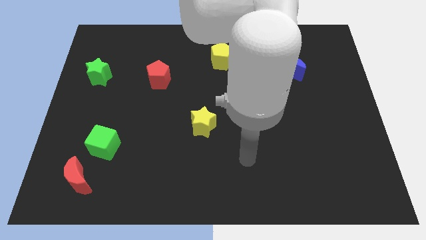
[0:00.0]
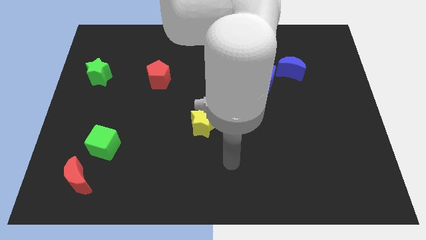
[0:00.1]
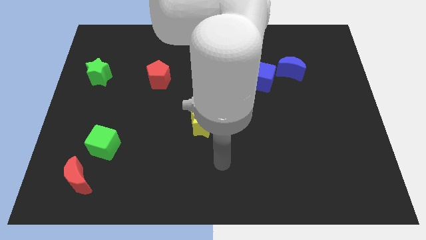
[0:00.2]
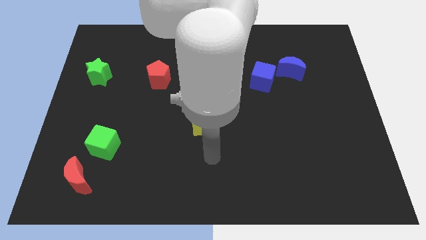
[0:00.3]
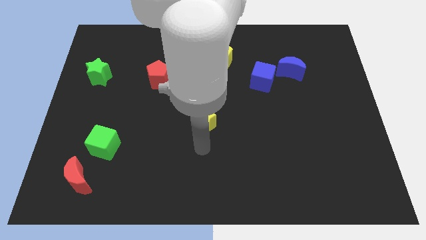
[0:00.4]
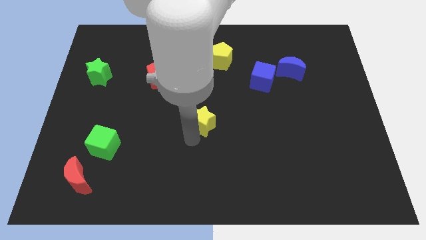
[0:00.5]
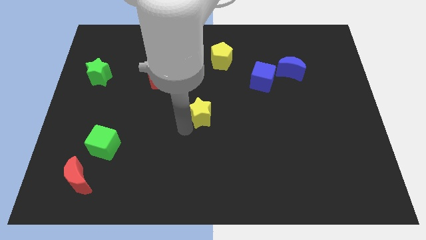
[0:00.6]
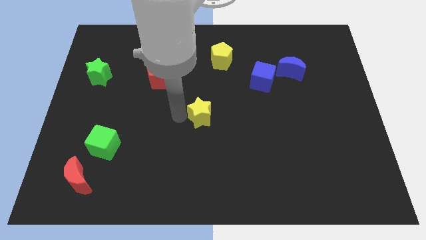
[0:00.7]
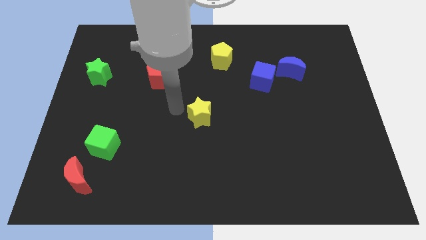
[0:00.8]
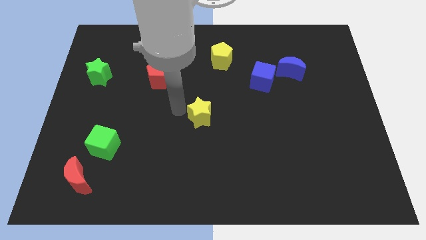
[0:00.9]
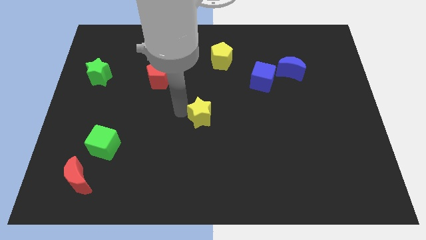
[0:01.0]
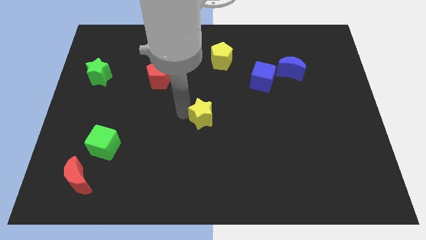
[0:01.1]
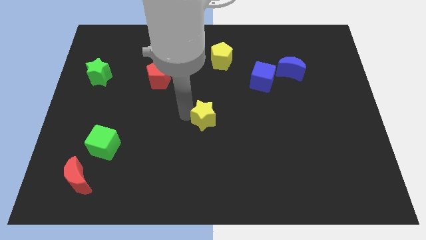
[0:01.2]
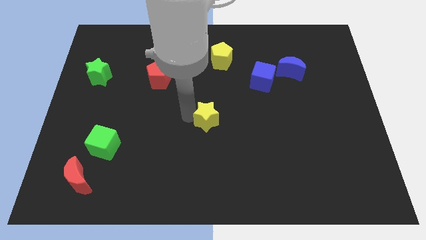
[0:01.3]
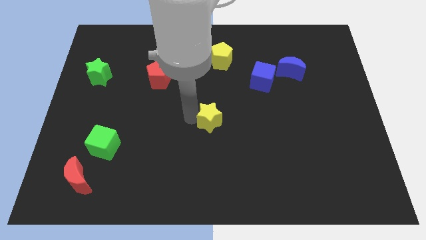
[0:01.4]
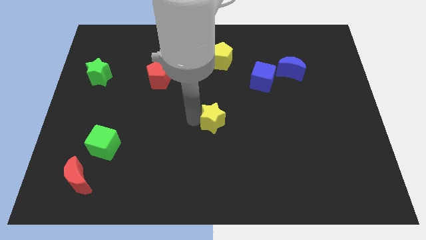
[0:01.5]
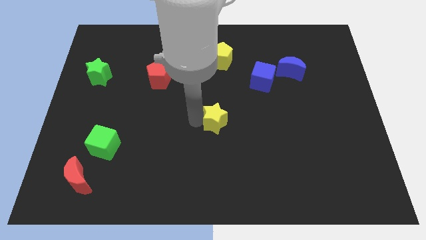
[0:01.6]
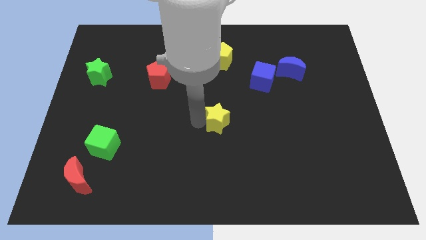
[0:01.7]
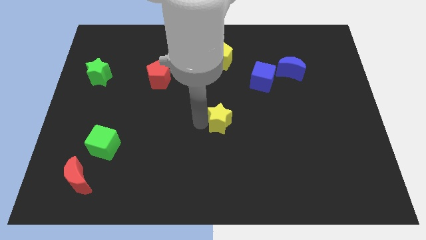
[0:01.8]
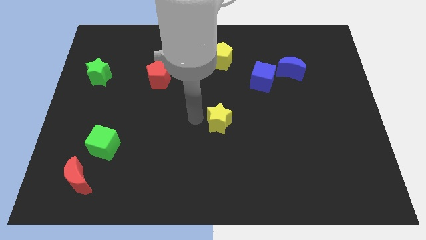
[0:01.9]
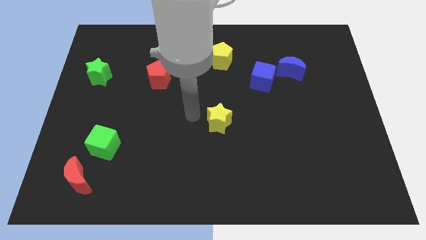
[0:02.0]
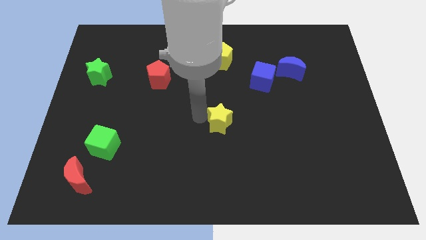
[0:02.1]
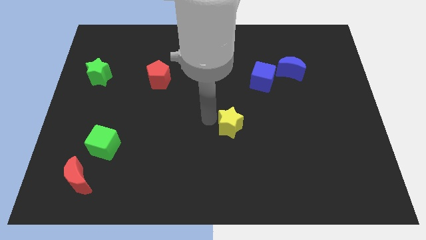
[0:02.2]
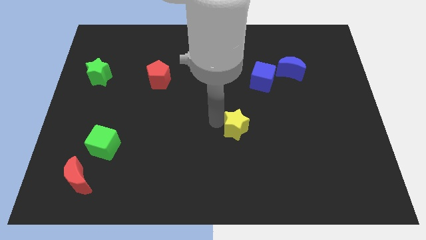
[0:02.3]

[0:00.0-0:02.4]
slightly move the yellow star right

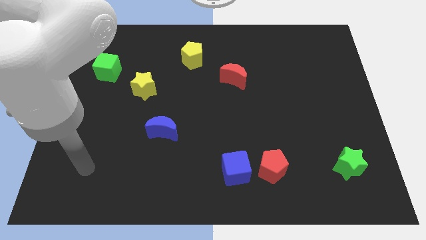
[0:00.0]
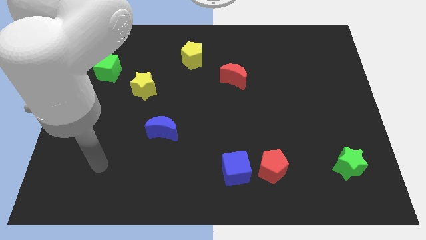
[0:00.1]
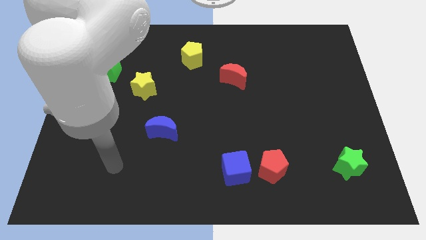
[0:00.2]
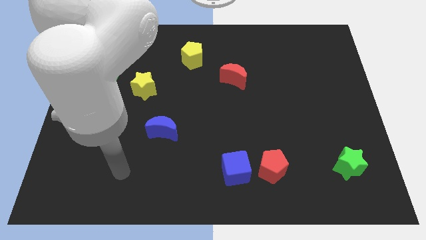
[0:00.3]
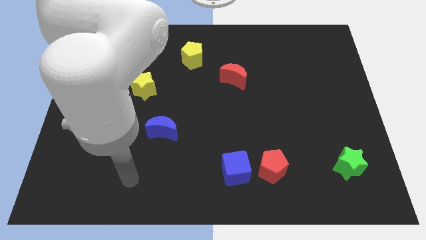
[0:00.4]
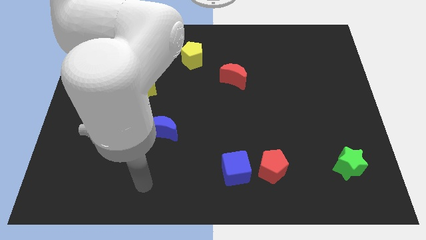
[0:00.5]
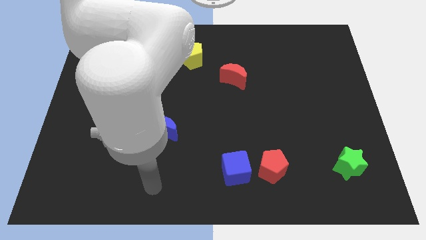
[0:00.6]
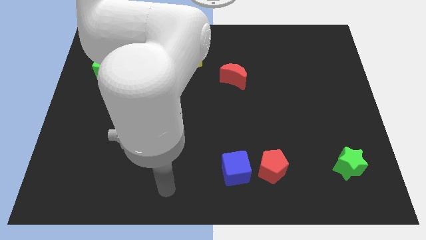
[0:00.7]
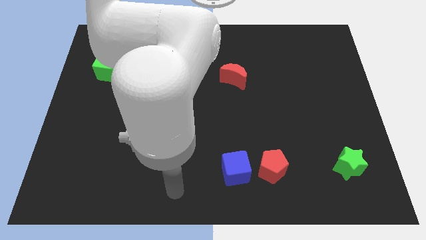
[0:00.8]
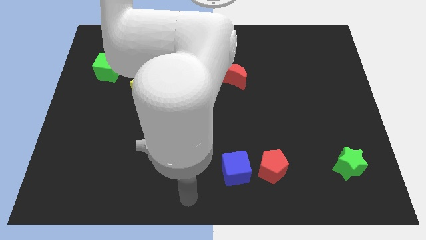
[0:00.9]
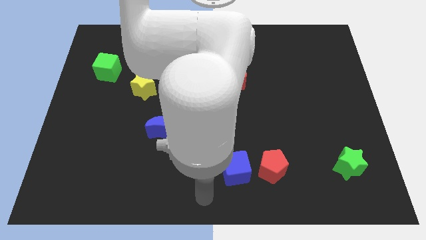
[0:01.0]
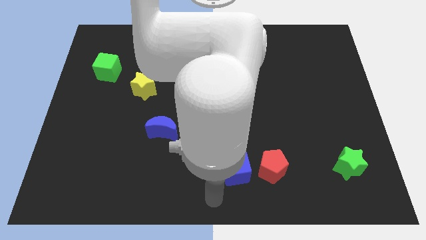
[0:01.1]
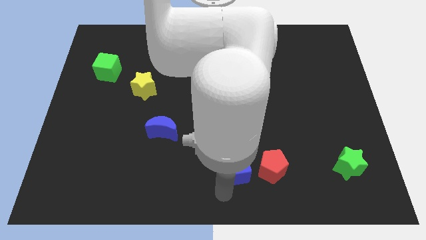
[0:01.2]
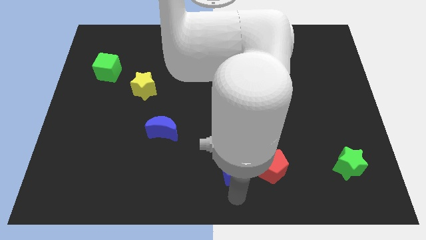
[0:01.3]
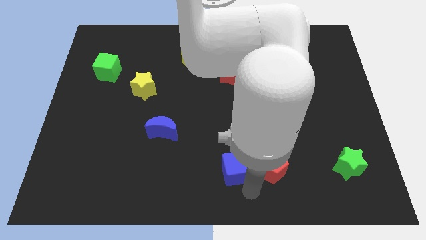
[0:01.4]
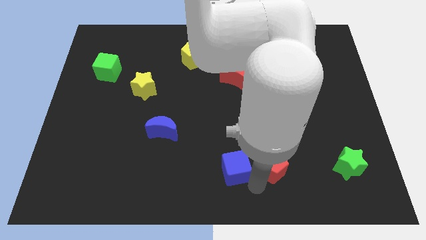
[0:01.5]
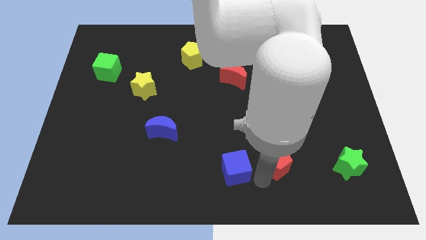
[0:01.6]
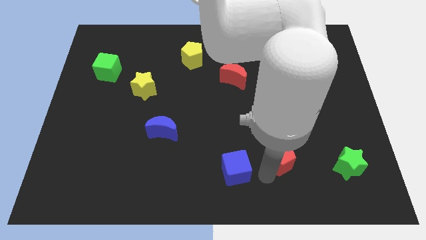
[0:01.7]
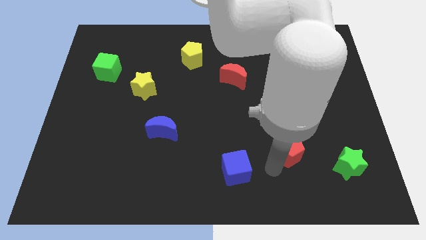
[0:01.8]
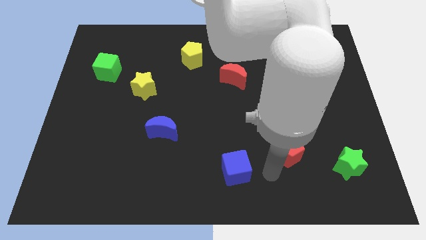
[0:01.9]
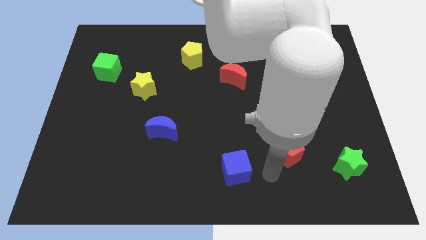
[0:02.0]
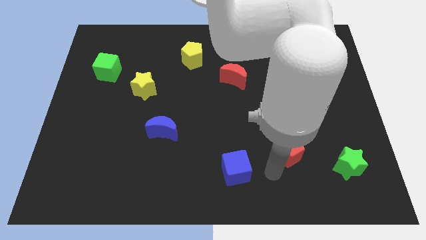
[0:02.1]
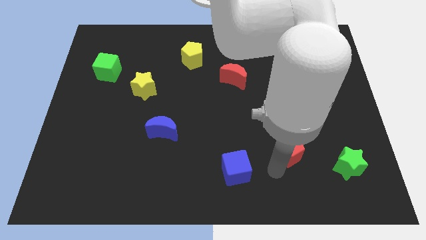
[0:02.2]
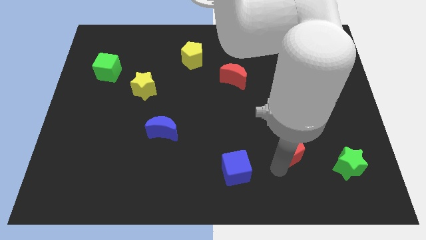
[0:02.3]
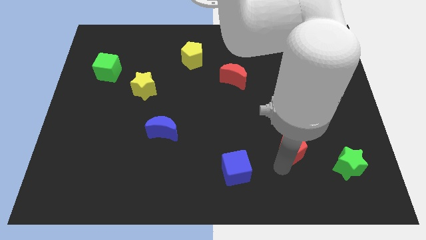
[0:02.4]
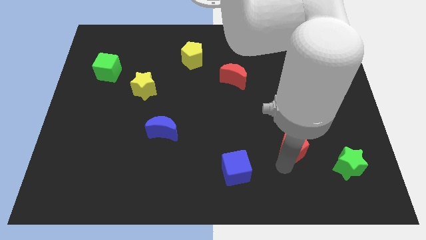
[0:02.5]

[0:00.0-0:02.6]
slide the red pentagon up and then right a little bit

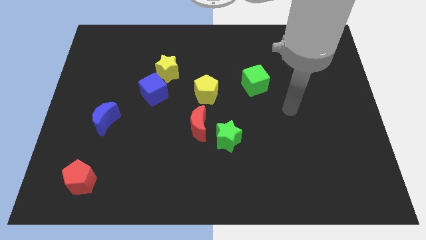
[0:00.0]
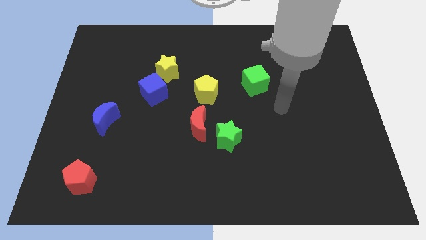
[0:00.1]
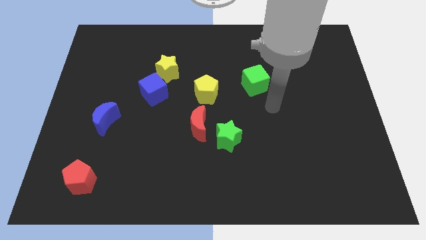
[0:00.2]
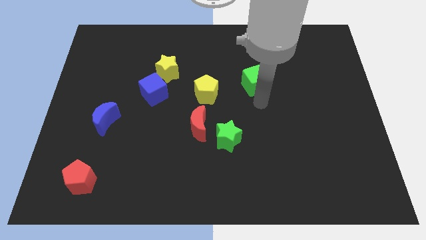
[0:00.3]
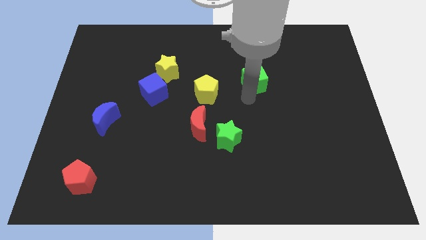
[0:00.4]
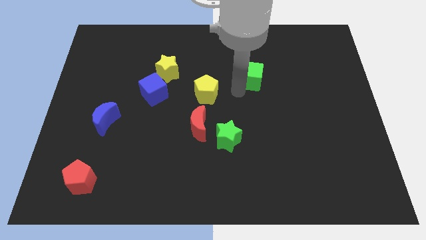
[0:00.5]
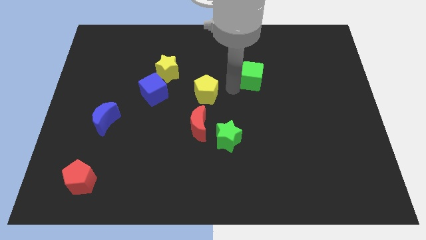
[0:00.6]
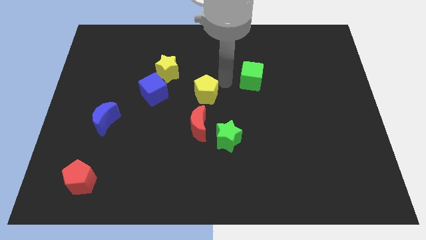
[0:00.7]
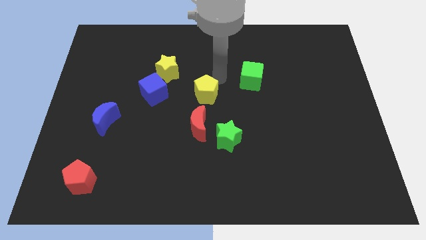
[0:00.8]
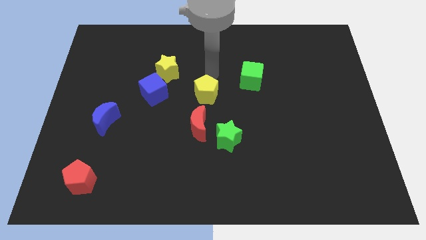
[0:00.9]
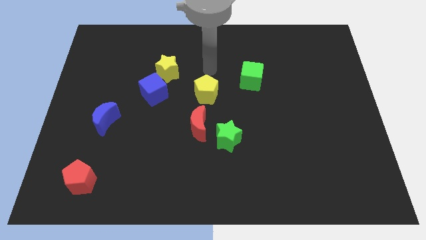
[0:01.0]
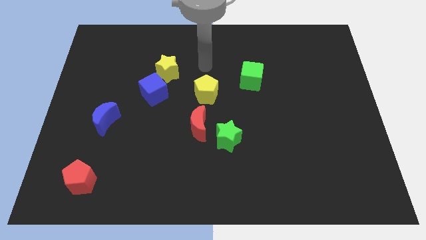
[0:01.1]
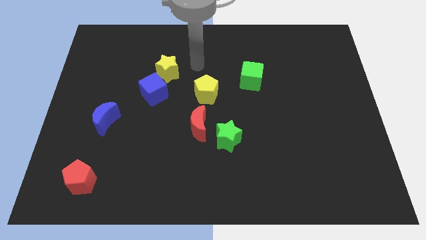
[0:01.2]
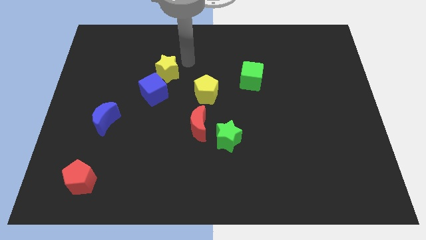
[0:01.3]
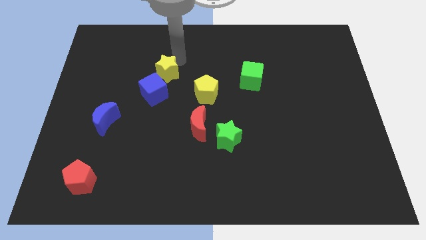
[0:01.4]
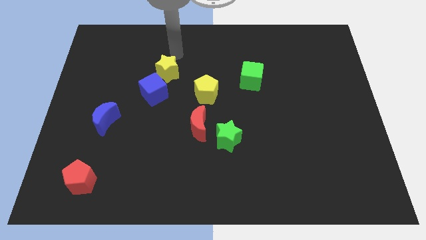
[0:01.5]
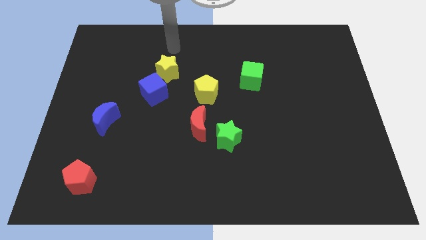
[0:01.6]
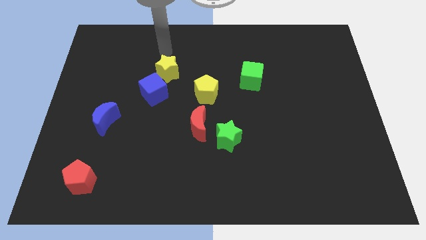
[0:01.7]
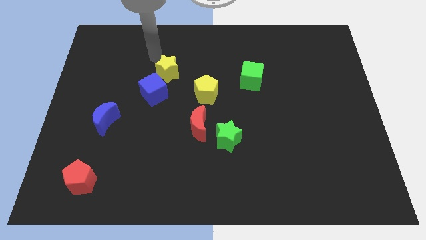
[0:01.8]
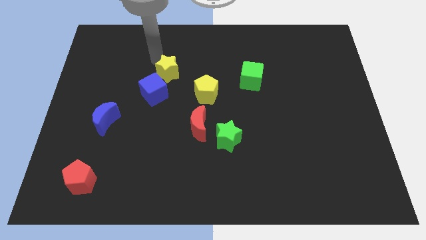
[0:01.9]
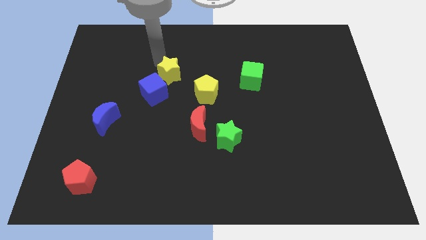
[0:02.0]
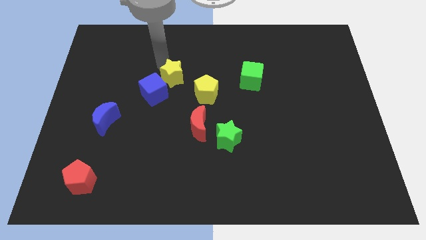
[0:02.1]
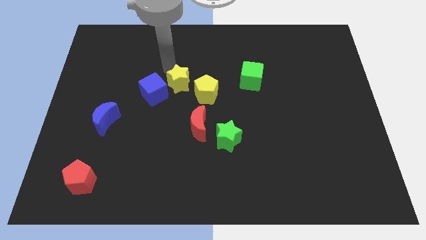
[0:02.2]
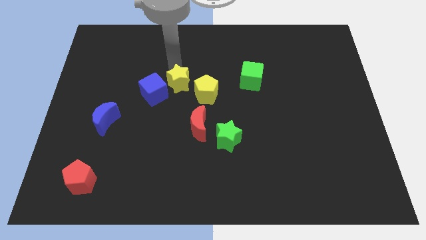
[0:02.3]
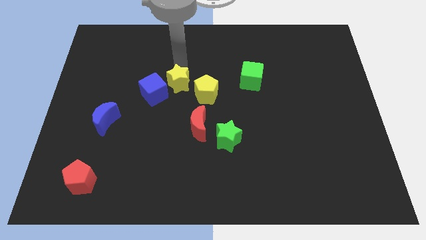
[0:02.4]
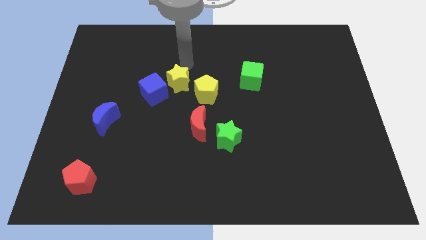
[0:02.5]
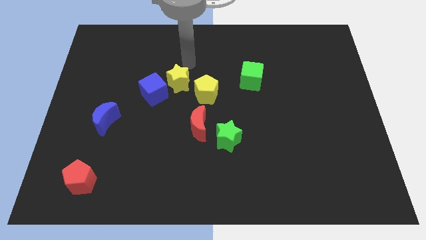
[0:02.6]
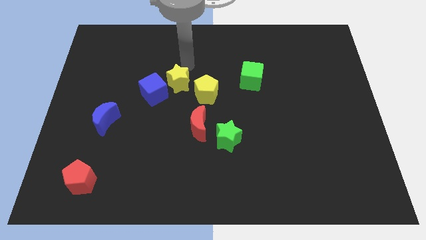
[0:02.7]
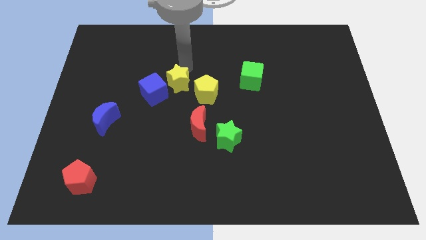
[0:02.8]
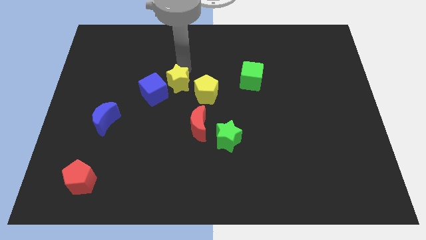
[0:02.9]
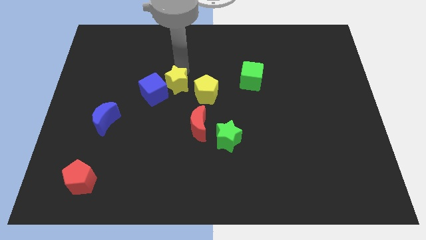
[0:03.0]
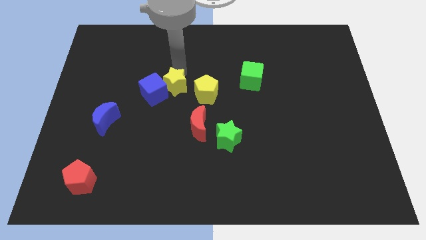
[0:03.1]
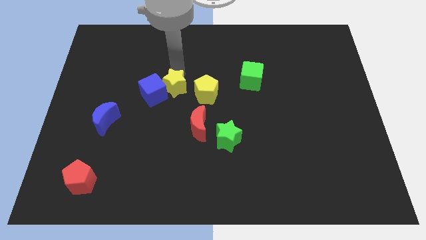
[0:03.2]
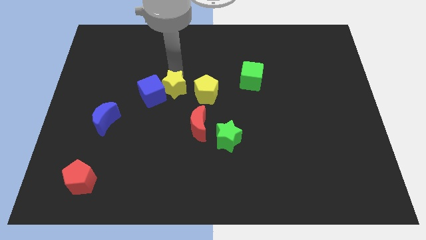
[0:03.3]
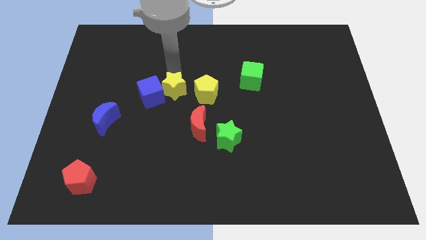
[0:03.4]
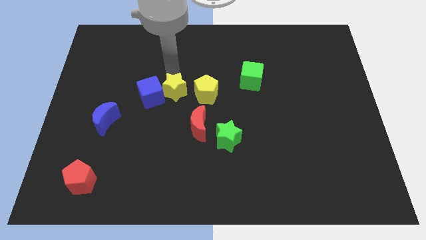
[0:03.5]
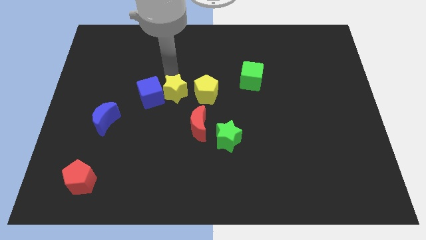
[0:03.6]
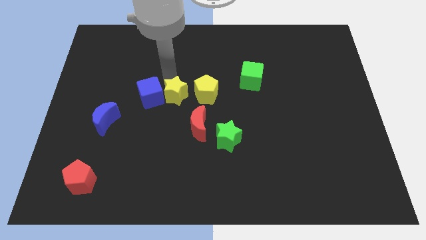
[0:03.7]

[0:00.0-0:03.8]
slide the yellow star down a little
